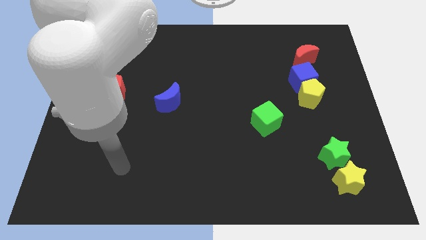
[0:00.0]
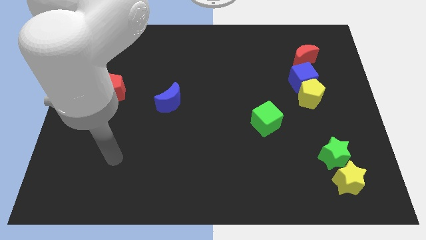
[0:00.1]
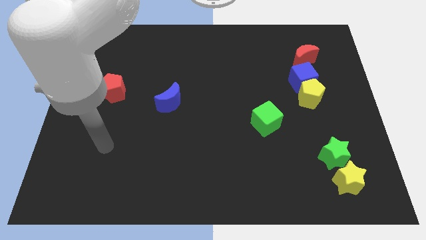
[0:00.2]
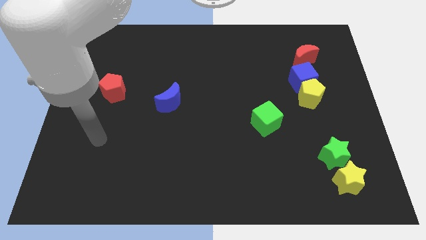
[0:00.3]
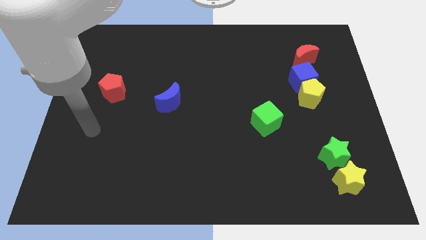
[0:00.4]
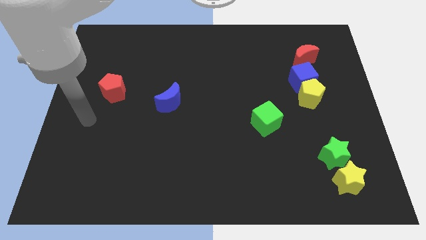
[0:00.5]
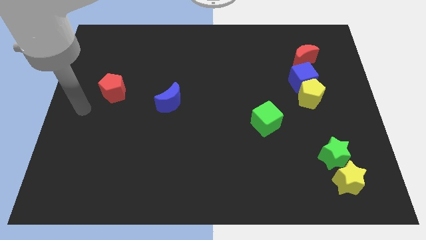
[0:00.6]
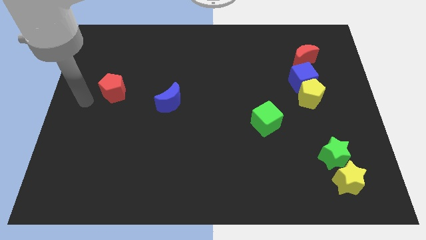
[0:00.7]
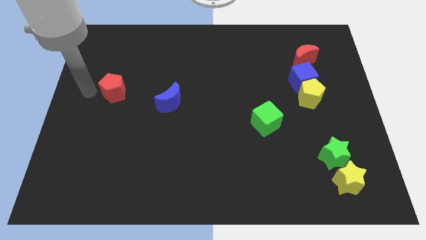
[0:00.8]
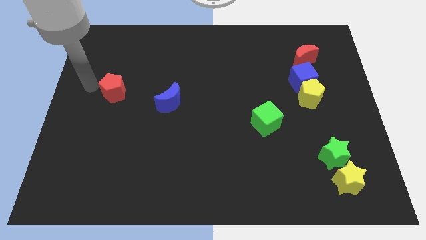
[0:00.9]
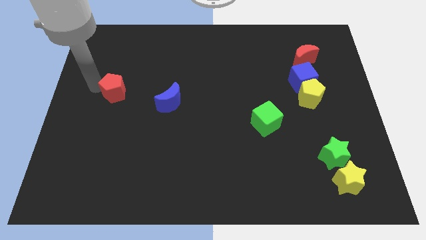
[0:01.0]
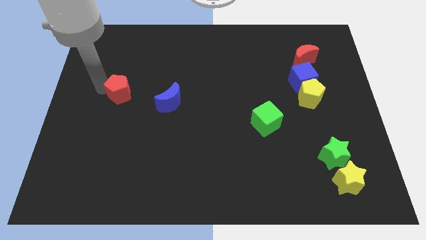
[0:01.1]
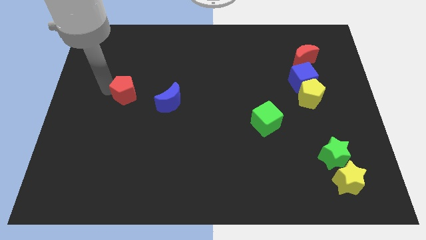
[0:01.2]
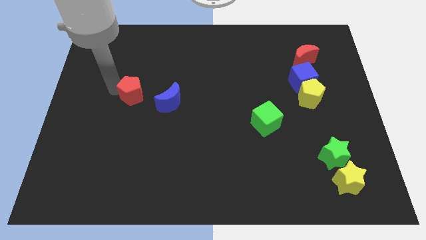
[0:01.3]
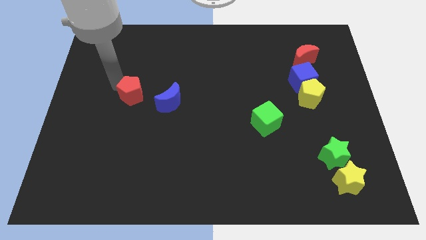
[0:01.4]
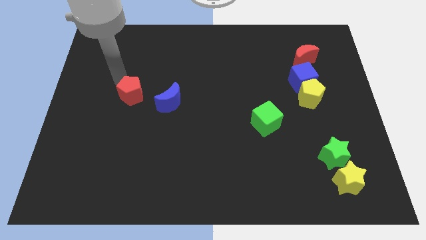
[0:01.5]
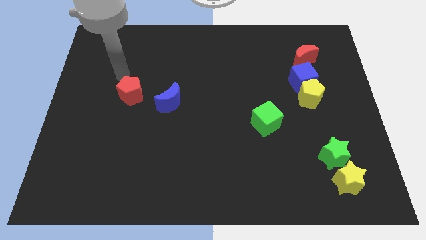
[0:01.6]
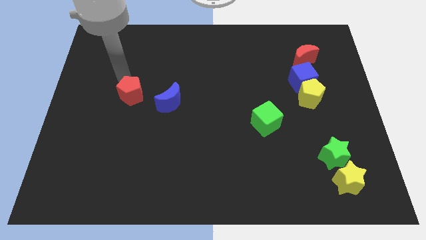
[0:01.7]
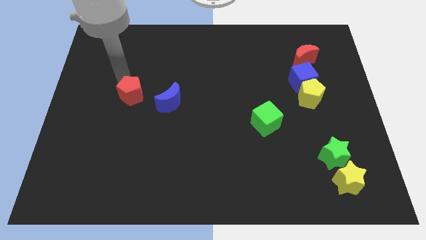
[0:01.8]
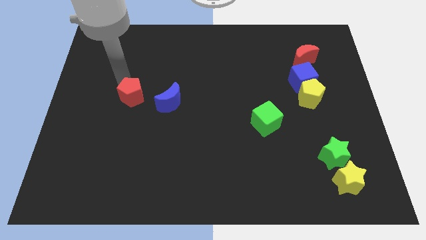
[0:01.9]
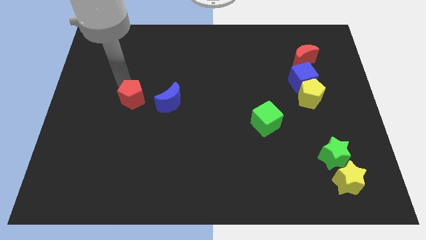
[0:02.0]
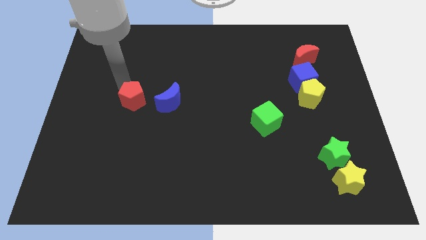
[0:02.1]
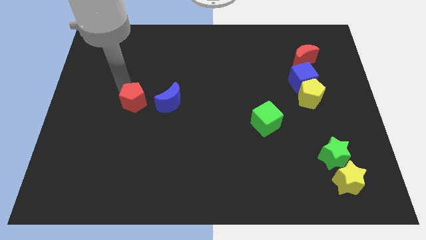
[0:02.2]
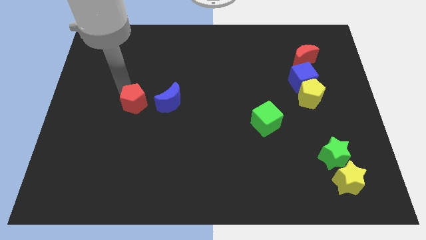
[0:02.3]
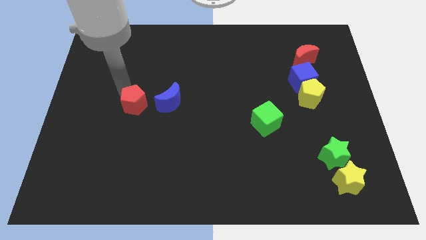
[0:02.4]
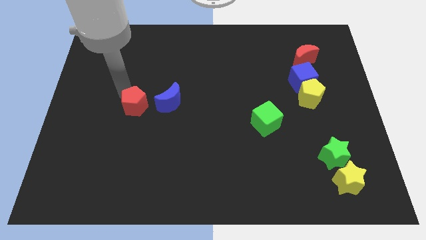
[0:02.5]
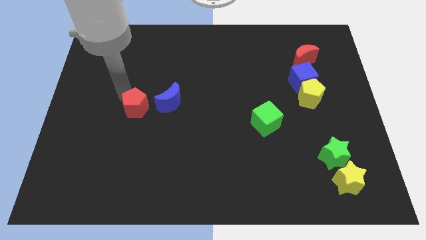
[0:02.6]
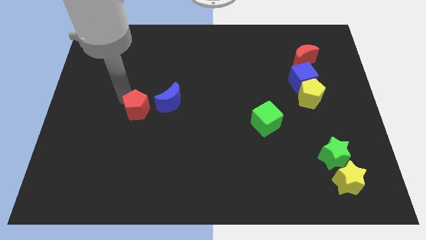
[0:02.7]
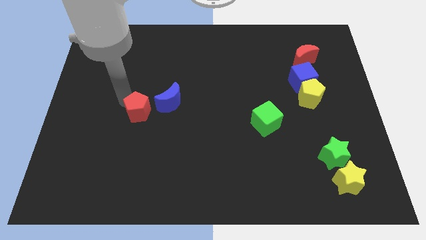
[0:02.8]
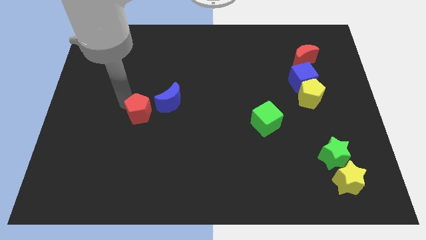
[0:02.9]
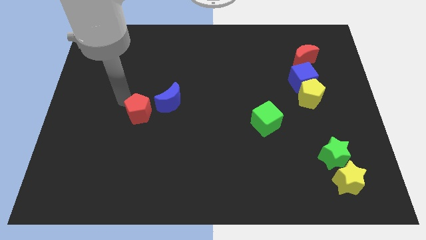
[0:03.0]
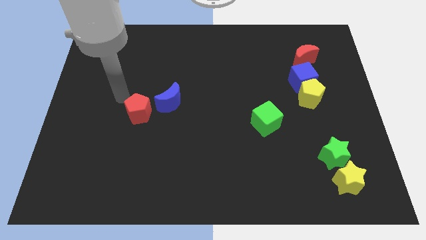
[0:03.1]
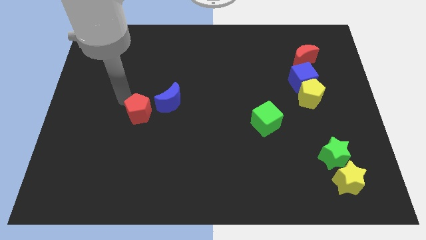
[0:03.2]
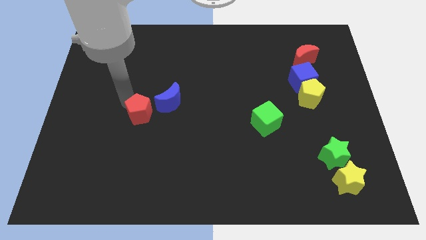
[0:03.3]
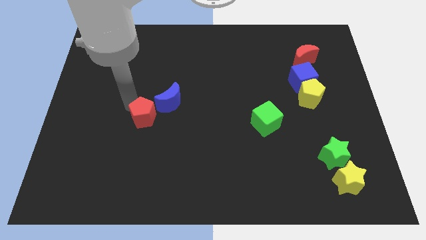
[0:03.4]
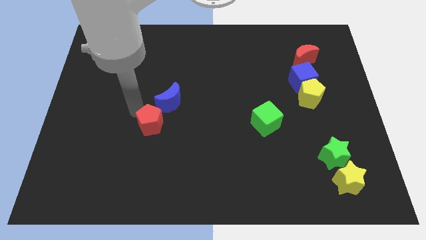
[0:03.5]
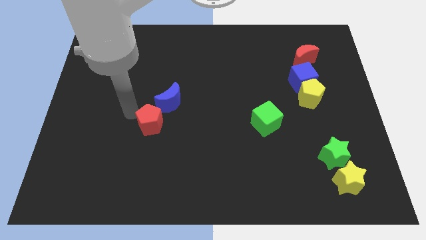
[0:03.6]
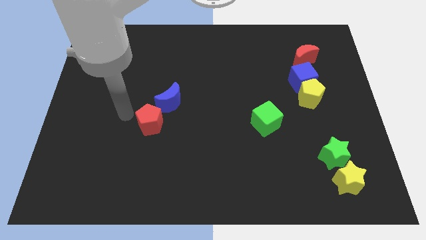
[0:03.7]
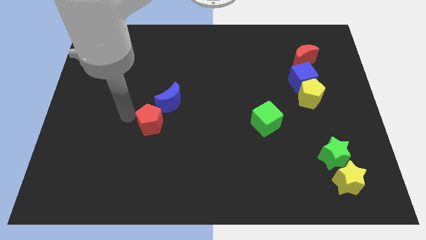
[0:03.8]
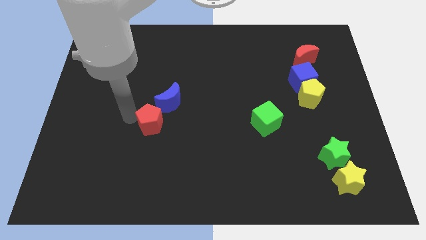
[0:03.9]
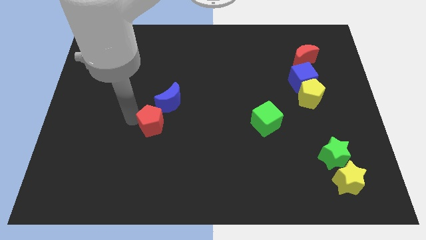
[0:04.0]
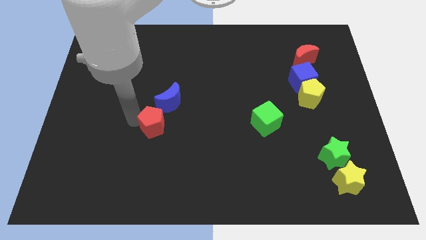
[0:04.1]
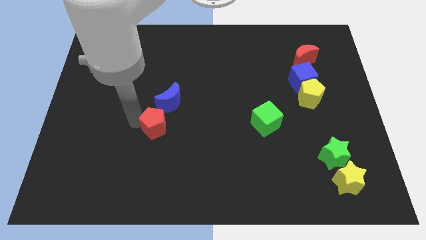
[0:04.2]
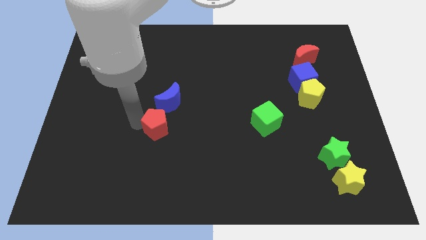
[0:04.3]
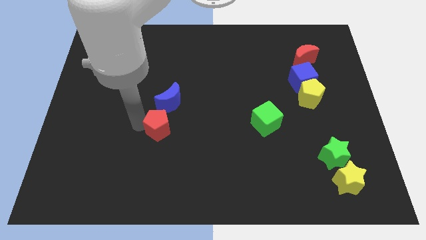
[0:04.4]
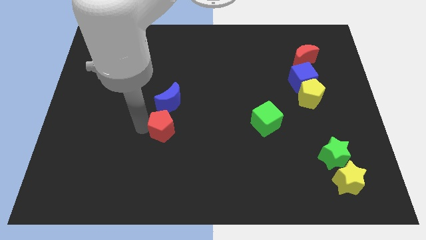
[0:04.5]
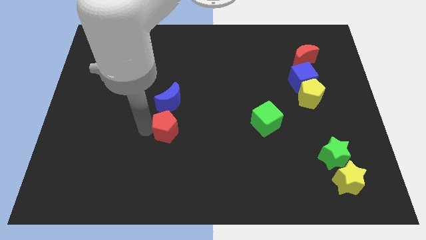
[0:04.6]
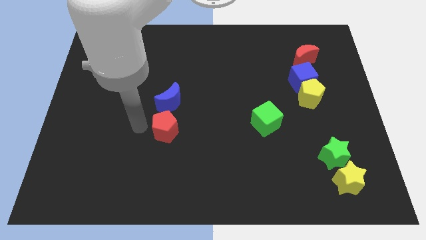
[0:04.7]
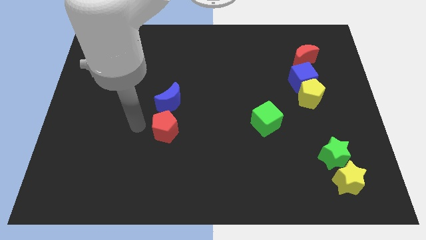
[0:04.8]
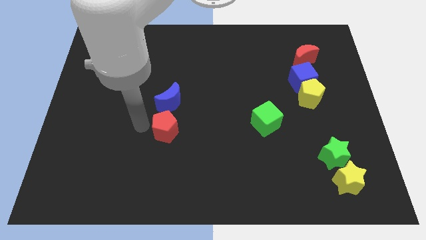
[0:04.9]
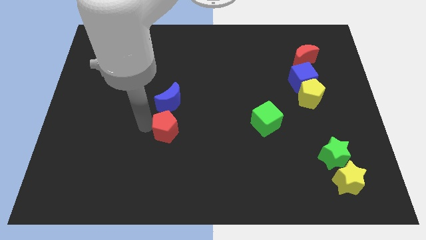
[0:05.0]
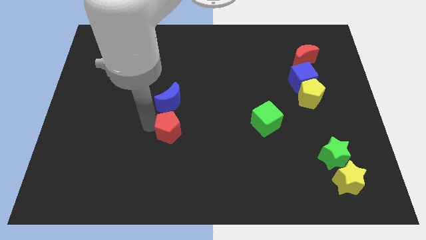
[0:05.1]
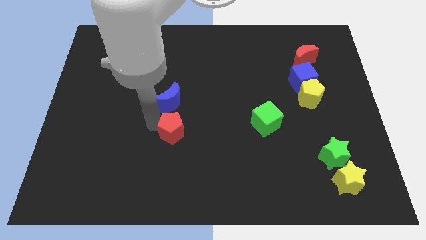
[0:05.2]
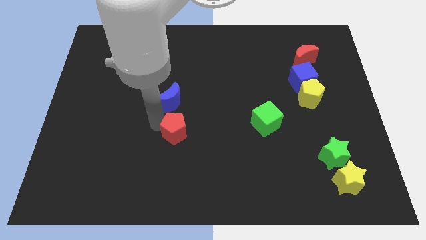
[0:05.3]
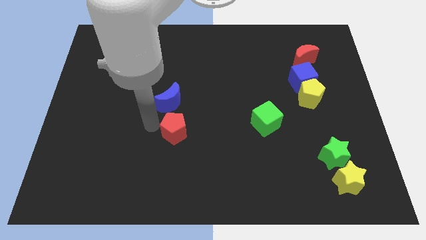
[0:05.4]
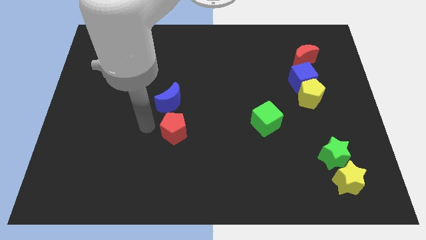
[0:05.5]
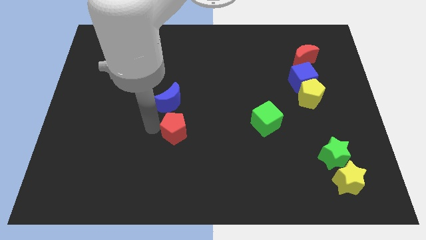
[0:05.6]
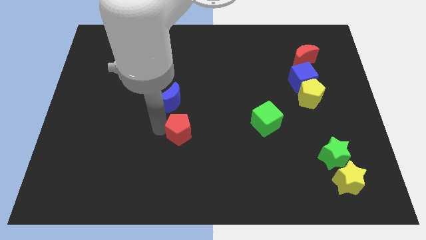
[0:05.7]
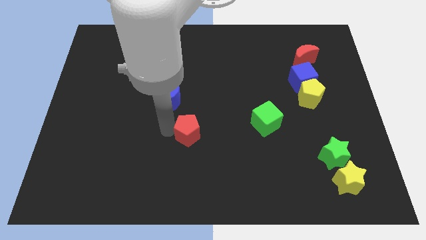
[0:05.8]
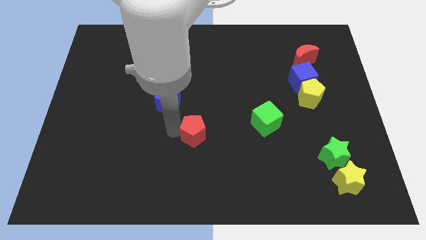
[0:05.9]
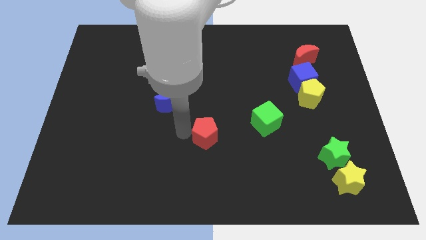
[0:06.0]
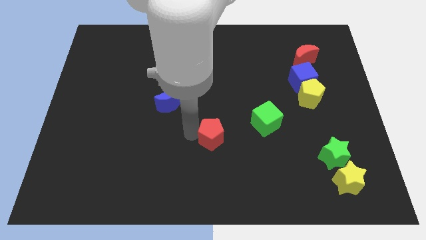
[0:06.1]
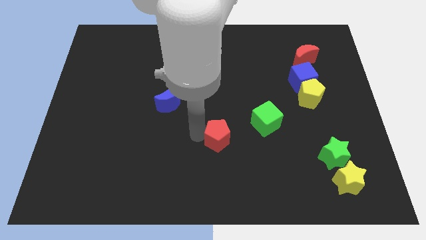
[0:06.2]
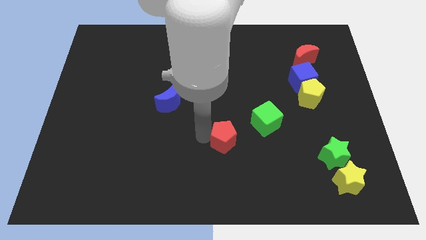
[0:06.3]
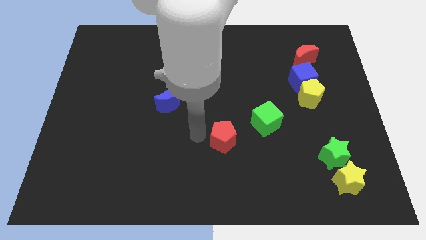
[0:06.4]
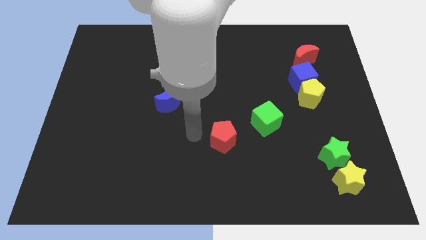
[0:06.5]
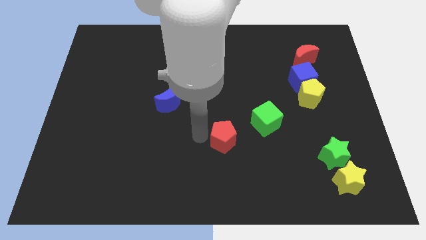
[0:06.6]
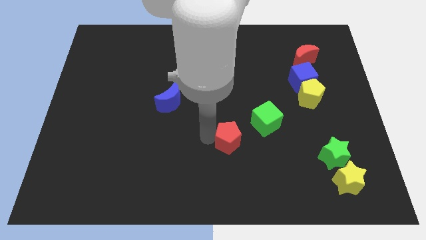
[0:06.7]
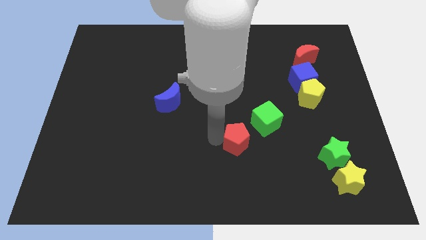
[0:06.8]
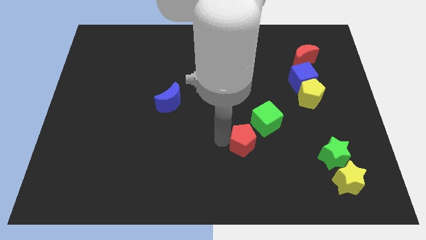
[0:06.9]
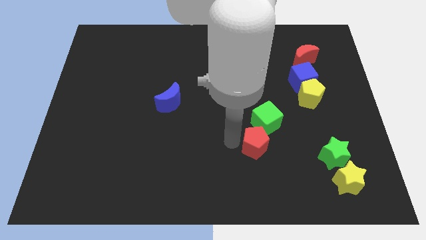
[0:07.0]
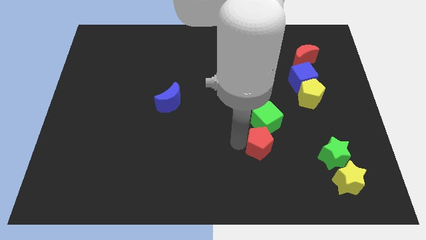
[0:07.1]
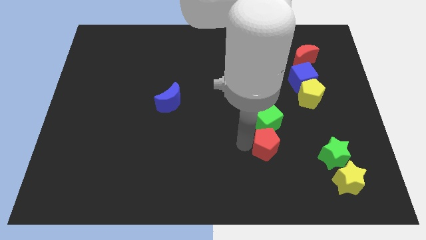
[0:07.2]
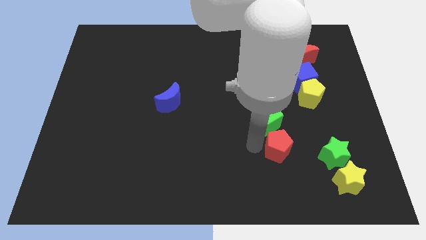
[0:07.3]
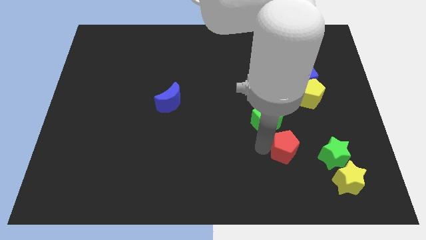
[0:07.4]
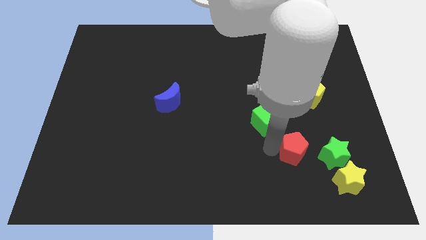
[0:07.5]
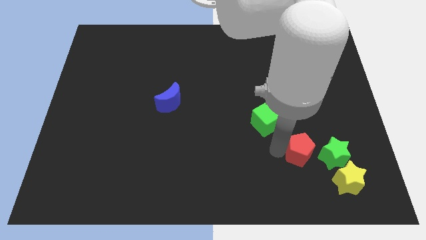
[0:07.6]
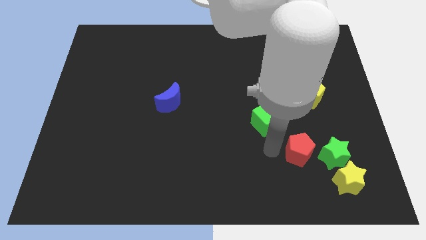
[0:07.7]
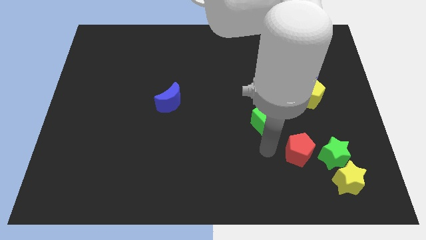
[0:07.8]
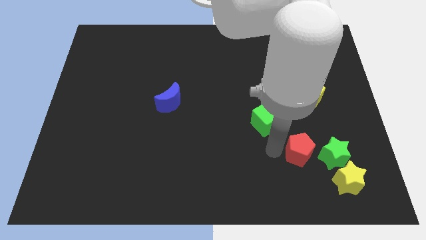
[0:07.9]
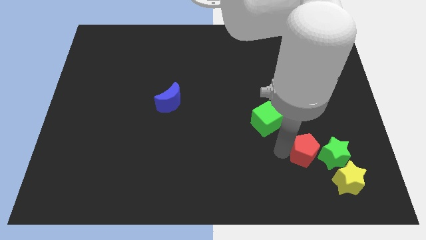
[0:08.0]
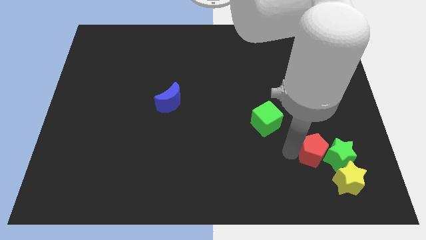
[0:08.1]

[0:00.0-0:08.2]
move the red pentagon close to the green star
